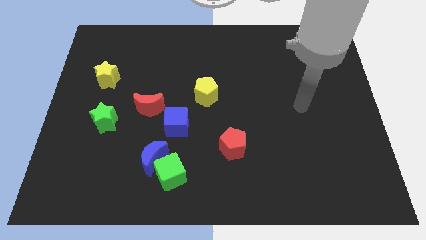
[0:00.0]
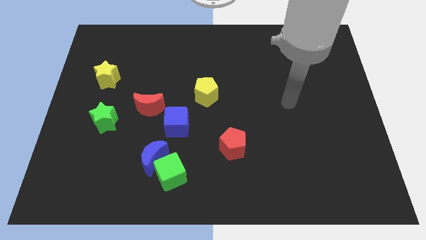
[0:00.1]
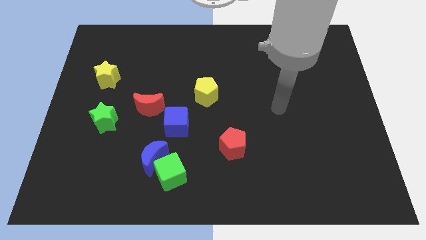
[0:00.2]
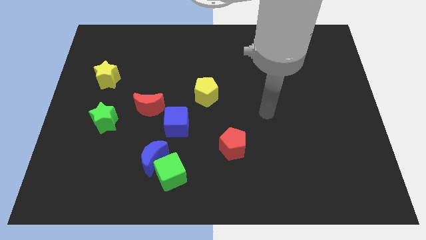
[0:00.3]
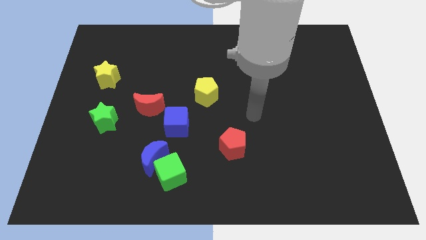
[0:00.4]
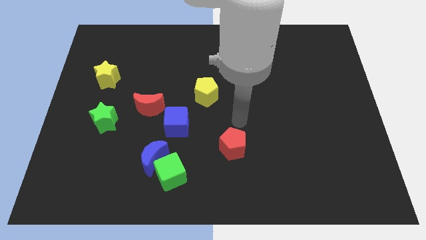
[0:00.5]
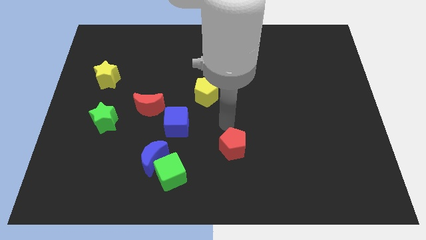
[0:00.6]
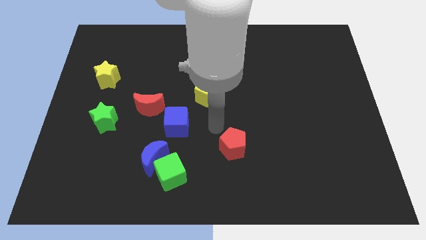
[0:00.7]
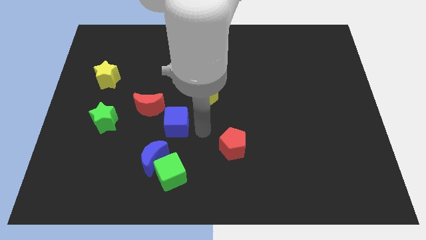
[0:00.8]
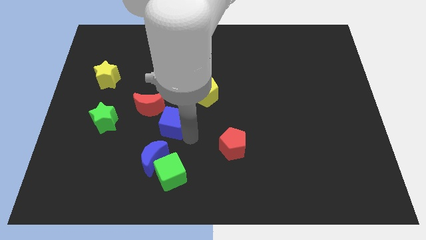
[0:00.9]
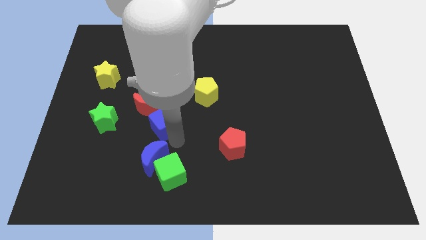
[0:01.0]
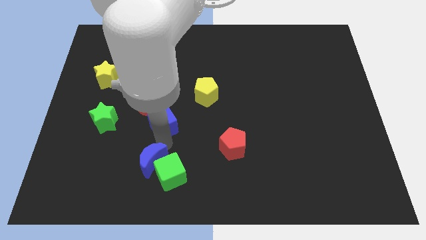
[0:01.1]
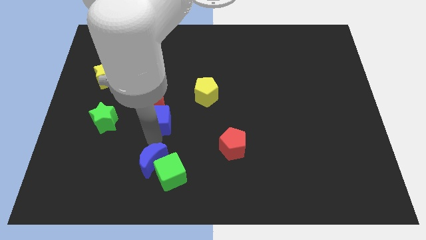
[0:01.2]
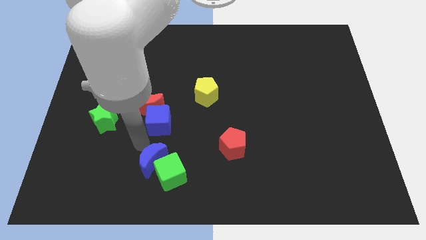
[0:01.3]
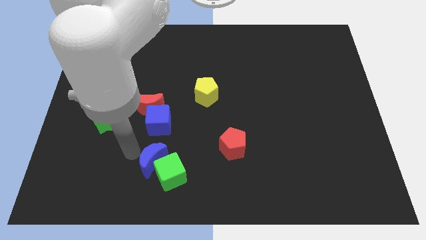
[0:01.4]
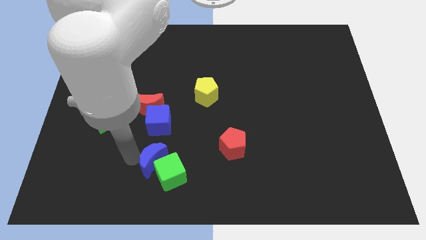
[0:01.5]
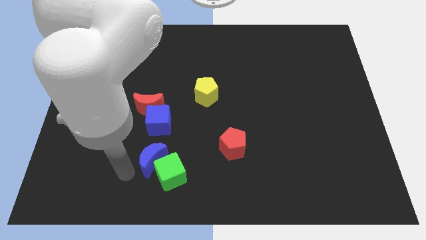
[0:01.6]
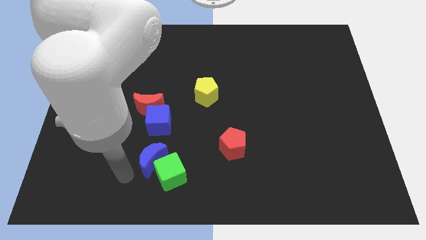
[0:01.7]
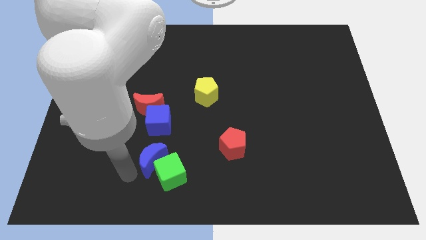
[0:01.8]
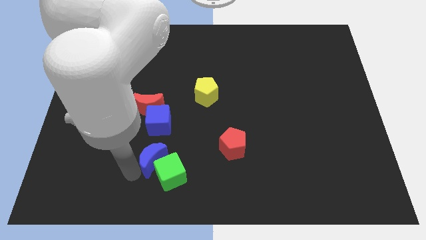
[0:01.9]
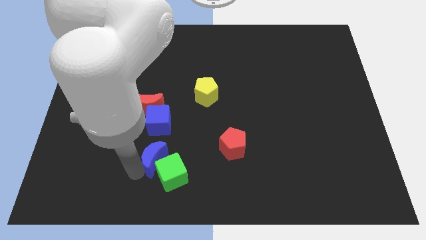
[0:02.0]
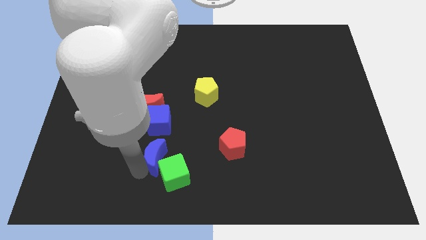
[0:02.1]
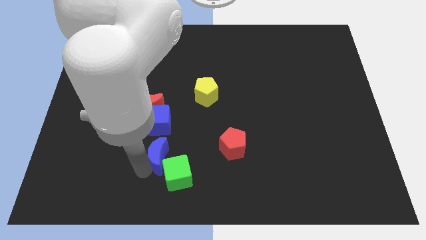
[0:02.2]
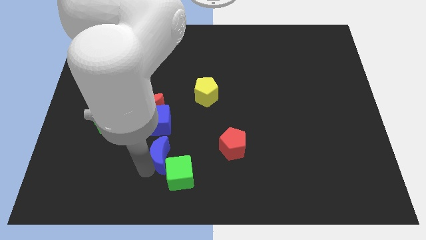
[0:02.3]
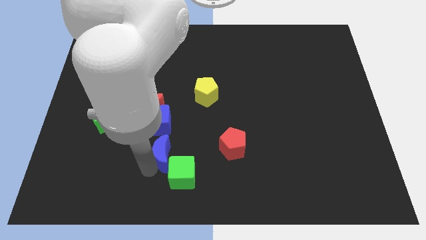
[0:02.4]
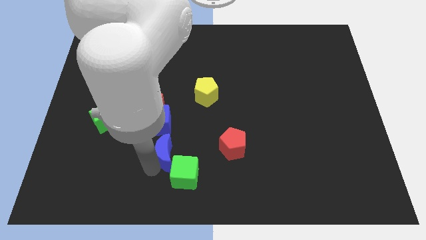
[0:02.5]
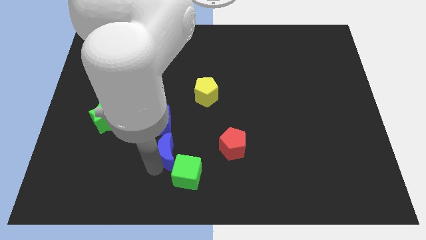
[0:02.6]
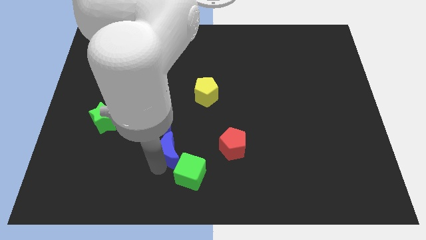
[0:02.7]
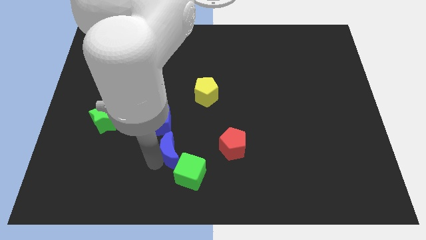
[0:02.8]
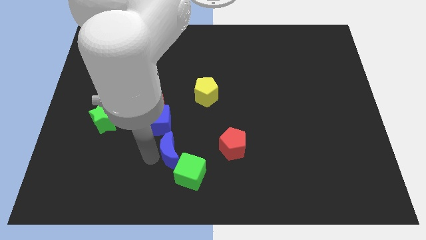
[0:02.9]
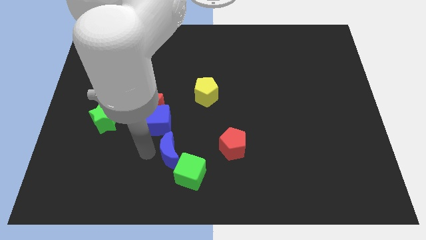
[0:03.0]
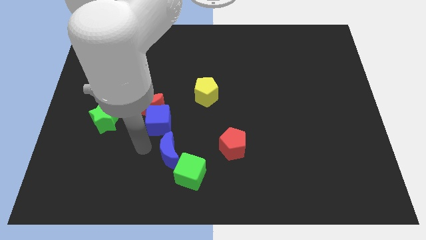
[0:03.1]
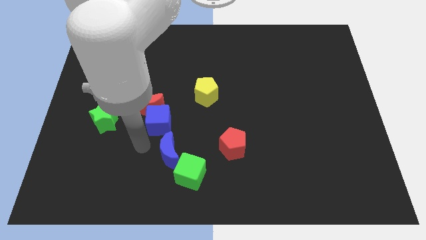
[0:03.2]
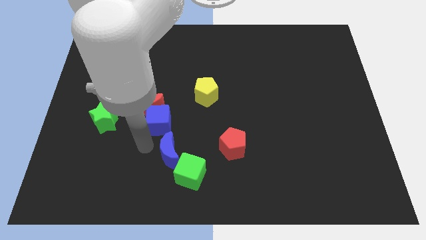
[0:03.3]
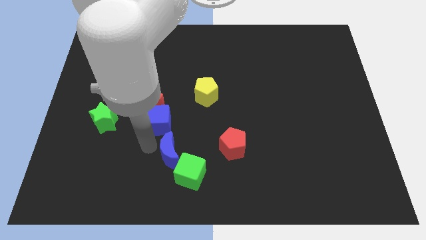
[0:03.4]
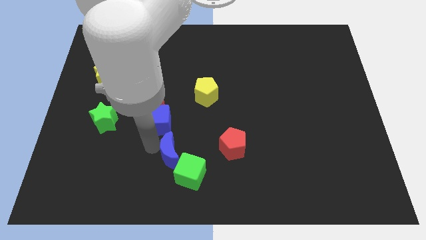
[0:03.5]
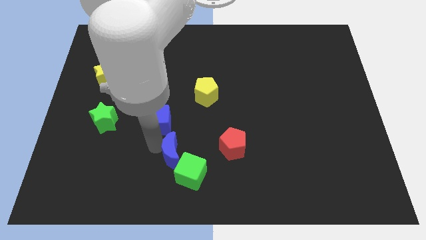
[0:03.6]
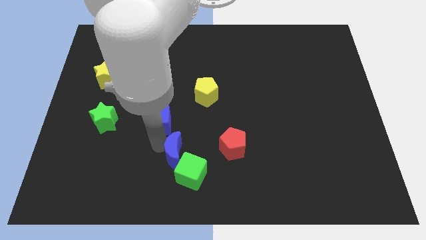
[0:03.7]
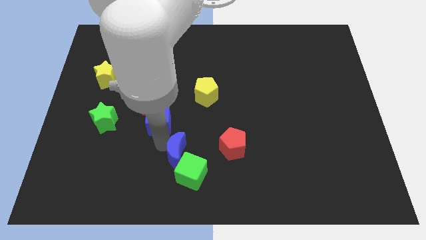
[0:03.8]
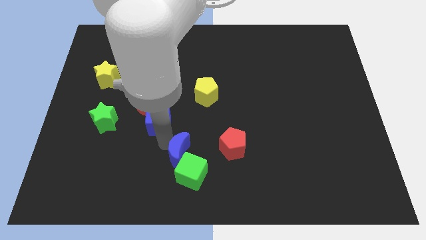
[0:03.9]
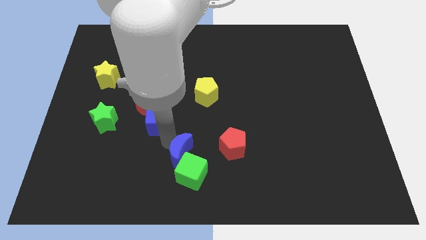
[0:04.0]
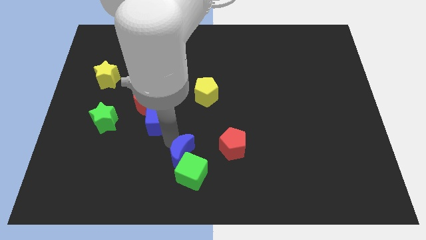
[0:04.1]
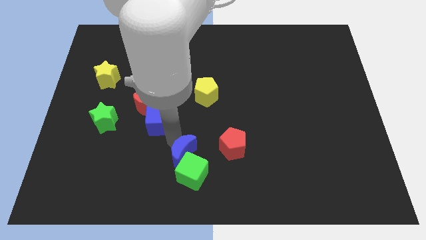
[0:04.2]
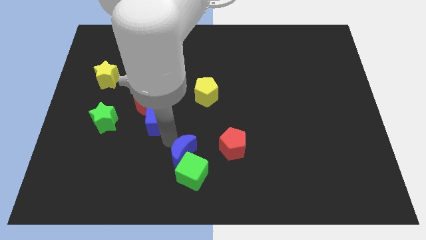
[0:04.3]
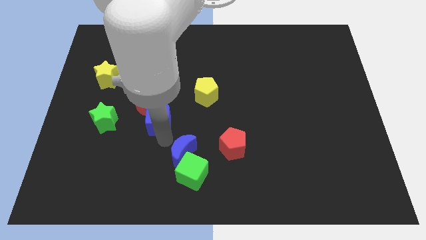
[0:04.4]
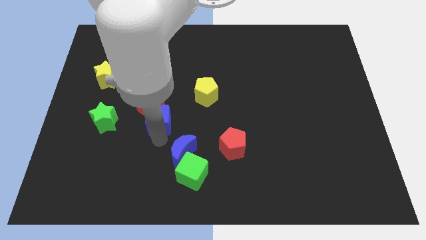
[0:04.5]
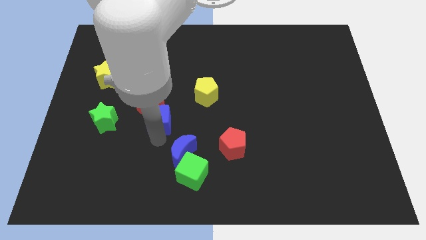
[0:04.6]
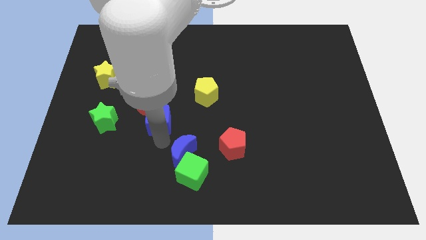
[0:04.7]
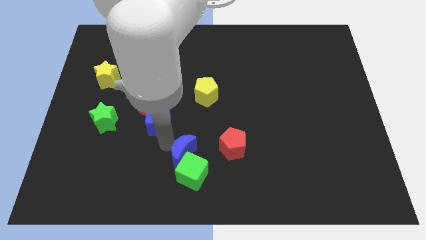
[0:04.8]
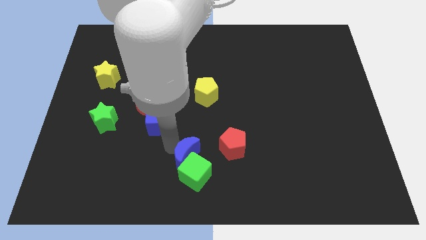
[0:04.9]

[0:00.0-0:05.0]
slightly move the blue moon to the right

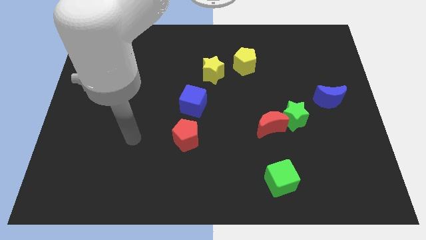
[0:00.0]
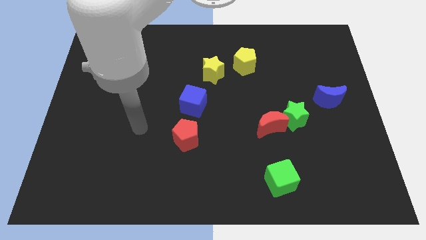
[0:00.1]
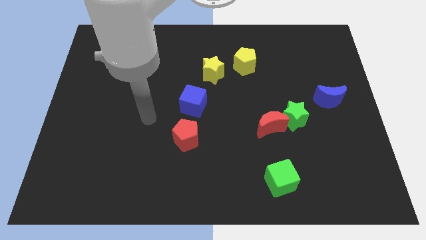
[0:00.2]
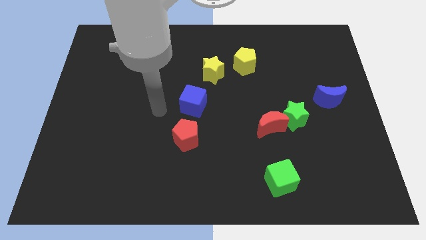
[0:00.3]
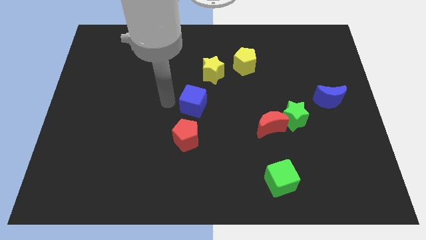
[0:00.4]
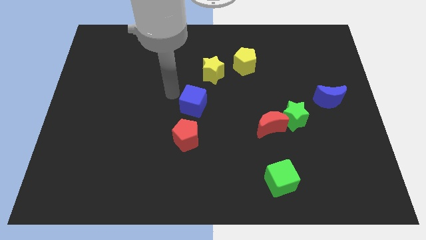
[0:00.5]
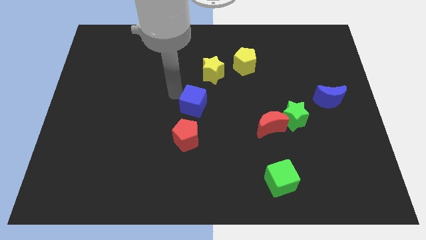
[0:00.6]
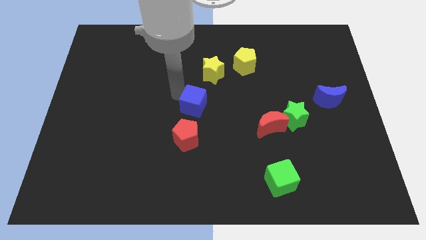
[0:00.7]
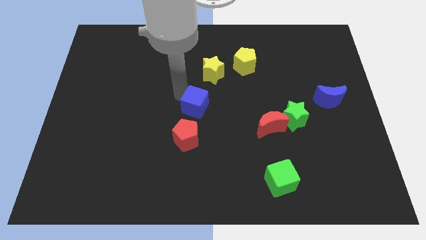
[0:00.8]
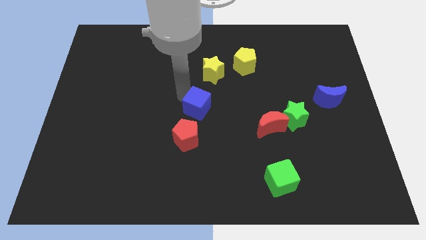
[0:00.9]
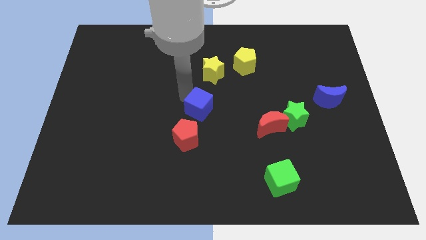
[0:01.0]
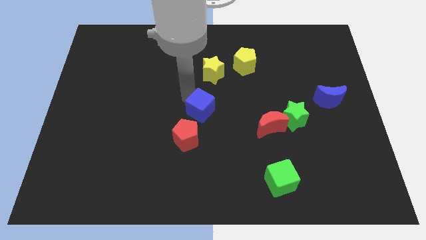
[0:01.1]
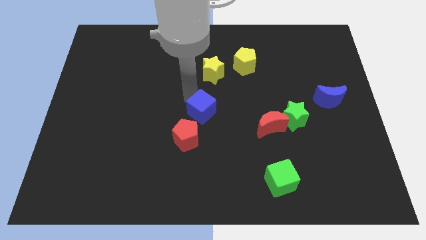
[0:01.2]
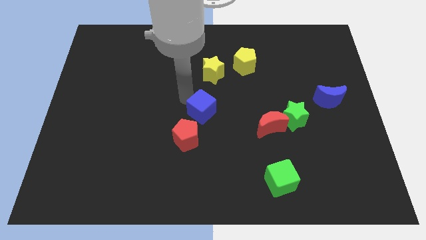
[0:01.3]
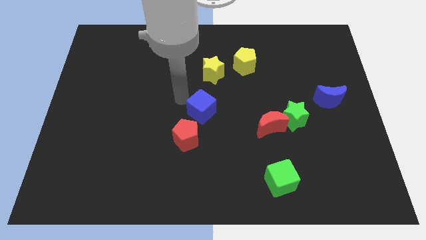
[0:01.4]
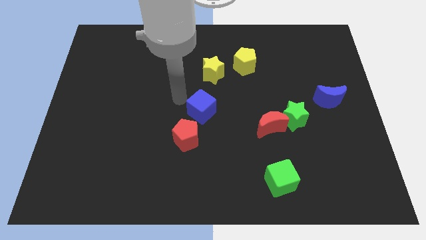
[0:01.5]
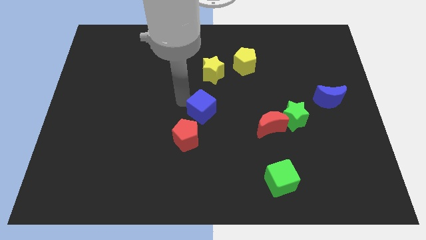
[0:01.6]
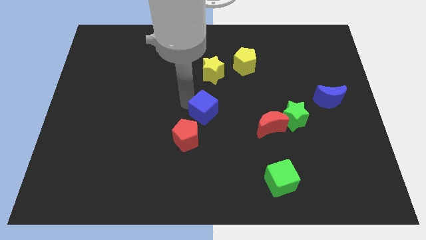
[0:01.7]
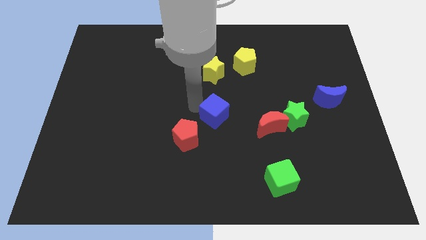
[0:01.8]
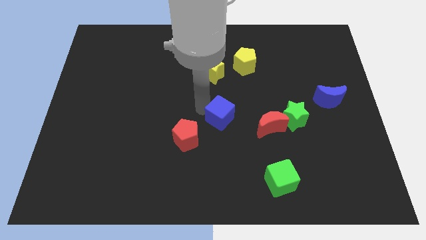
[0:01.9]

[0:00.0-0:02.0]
slide the blue cube downwards and right a little bit

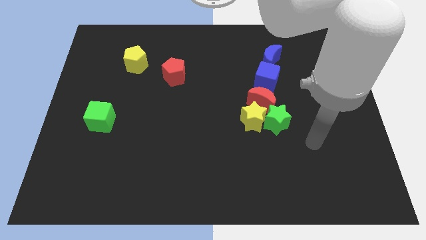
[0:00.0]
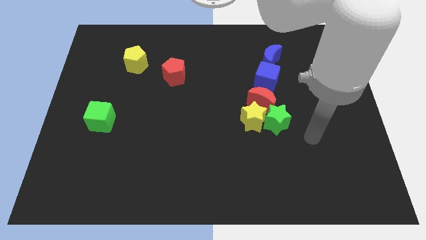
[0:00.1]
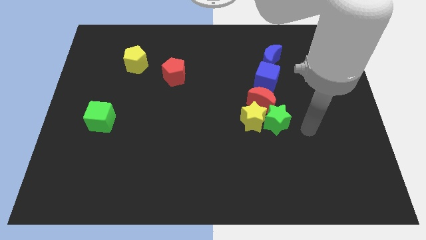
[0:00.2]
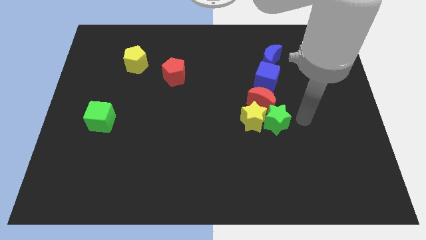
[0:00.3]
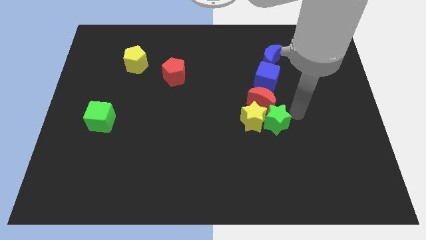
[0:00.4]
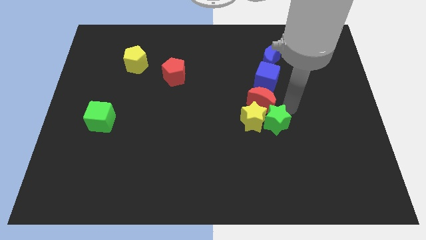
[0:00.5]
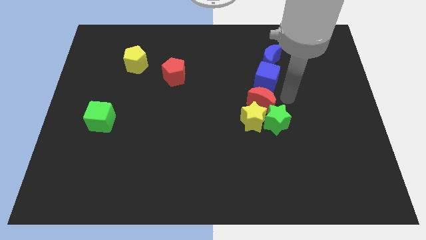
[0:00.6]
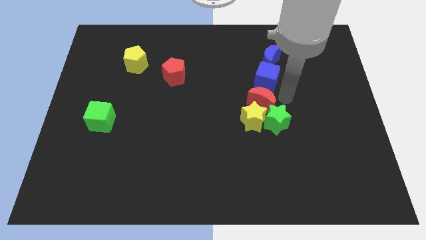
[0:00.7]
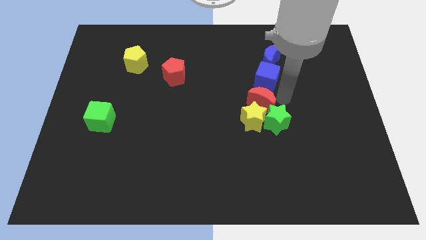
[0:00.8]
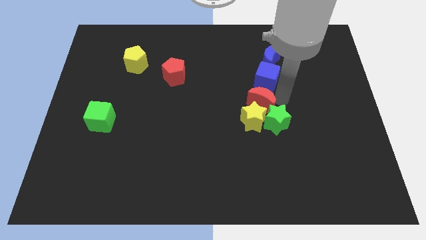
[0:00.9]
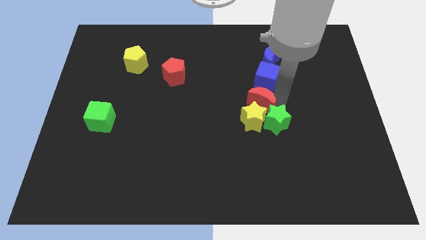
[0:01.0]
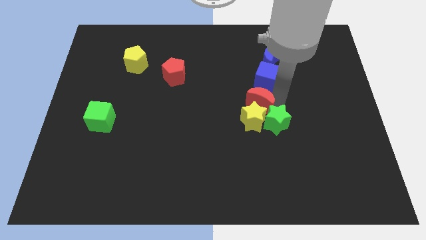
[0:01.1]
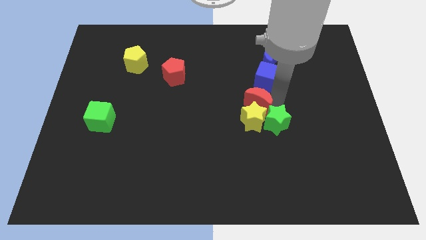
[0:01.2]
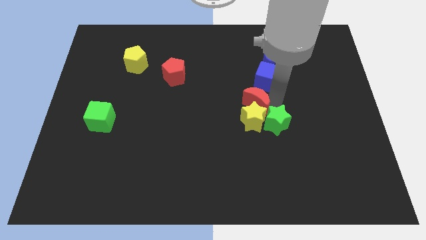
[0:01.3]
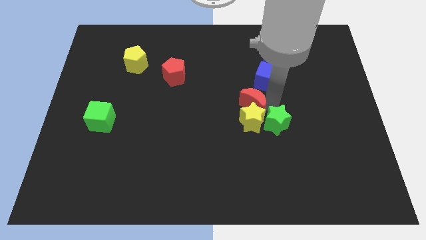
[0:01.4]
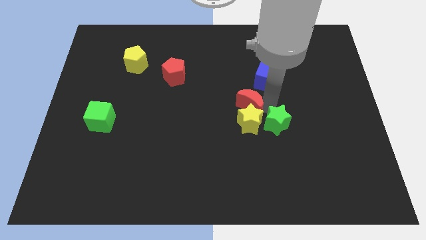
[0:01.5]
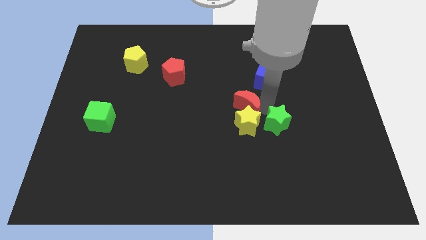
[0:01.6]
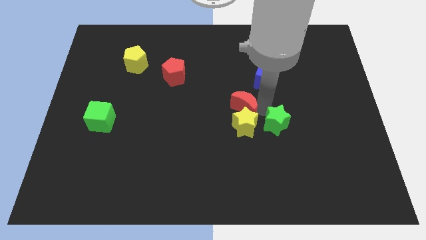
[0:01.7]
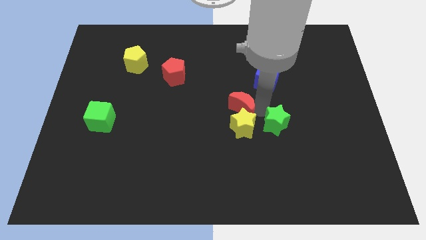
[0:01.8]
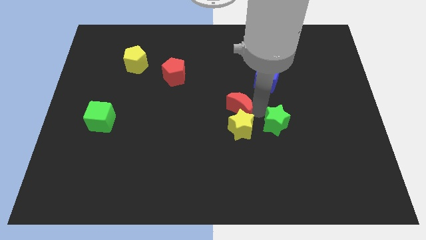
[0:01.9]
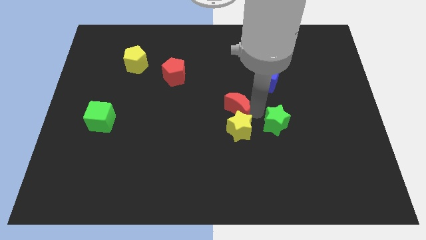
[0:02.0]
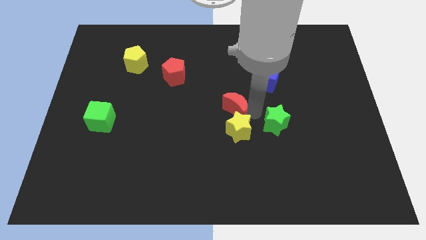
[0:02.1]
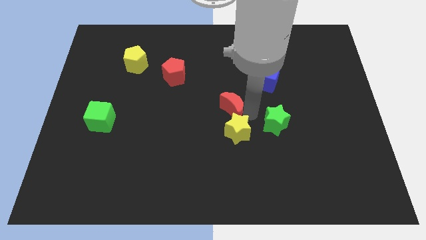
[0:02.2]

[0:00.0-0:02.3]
slide the red moon left a bit
